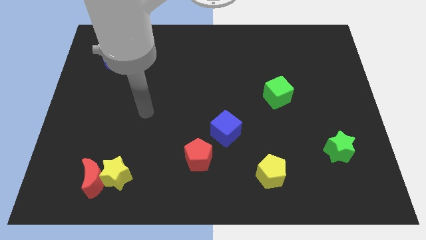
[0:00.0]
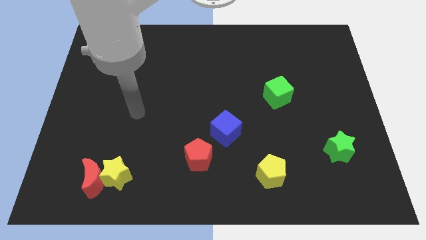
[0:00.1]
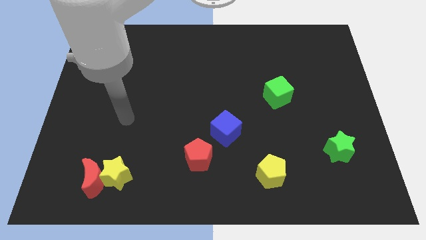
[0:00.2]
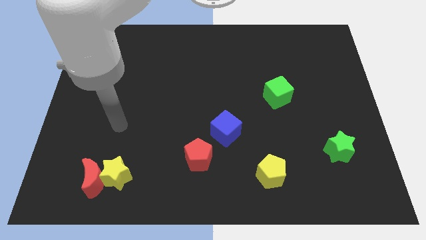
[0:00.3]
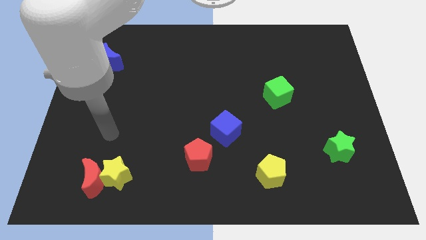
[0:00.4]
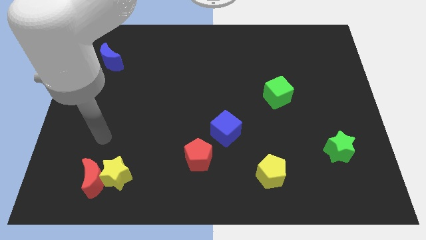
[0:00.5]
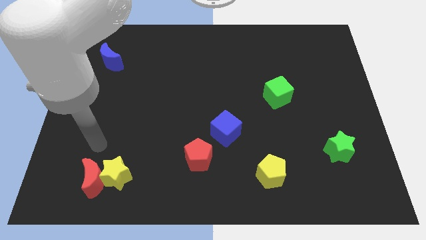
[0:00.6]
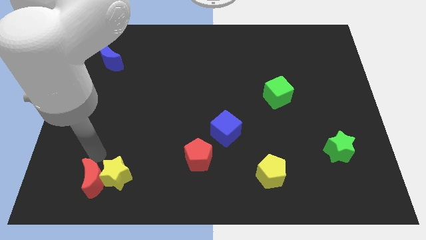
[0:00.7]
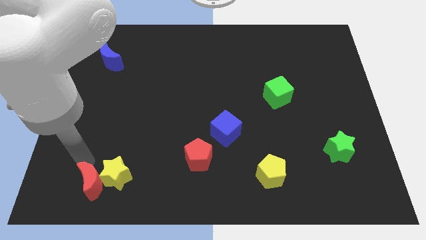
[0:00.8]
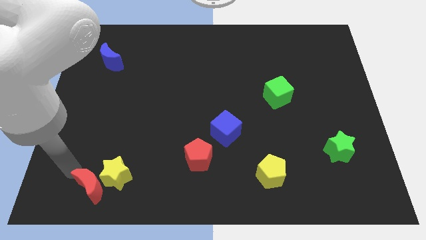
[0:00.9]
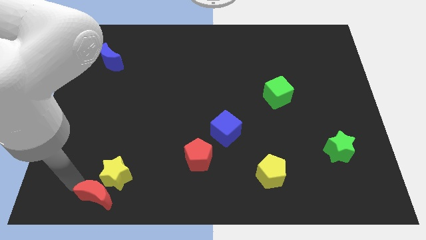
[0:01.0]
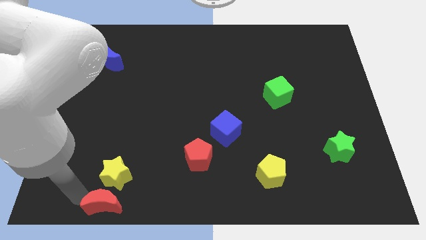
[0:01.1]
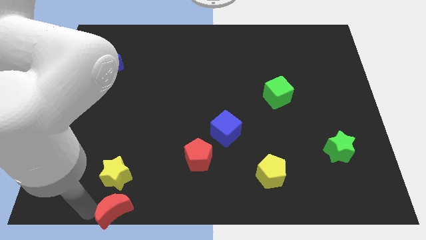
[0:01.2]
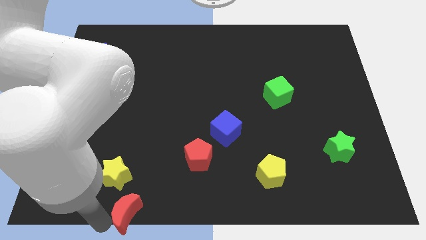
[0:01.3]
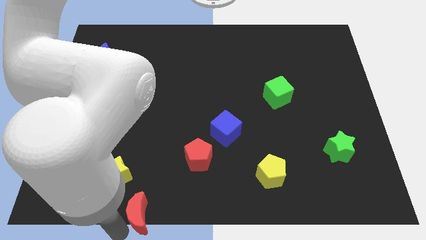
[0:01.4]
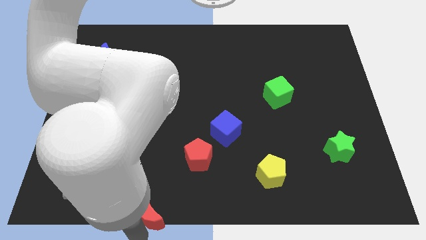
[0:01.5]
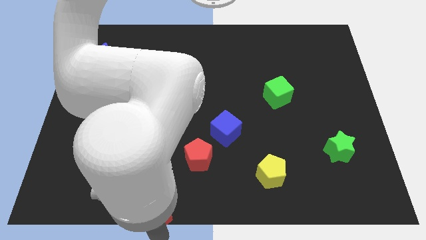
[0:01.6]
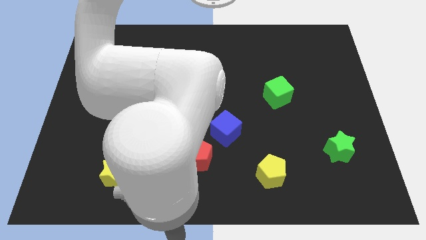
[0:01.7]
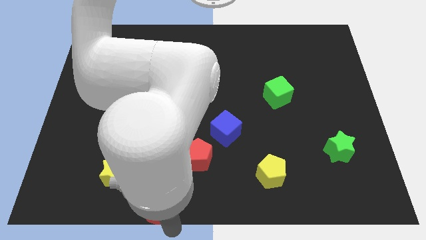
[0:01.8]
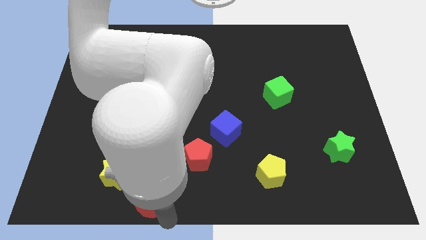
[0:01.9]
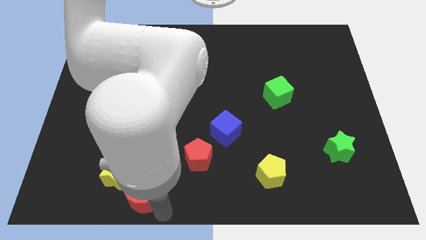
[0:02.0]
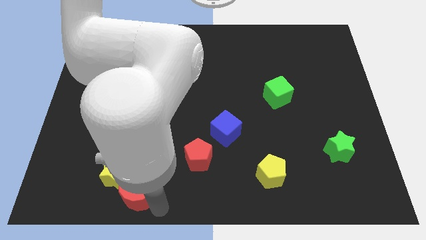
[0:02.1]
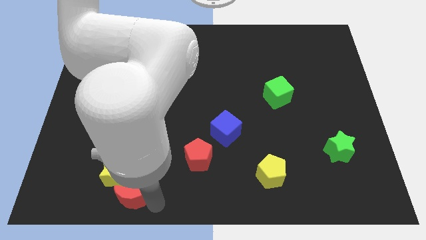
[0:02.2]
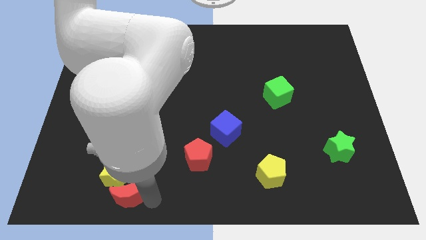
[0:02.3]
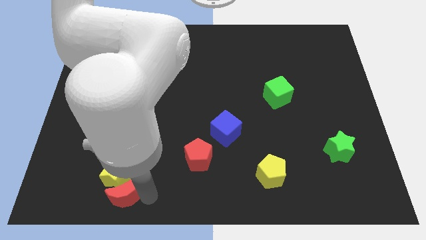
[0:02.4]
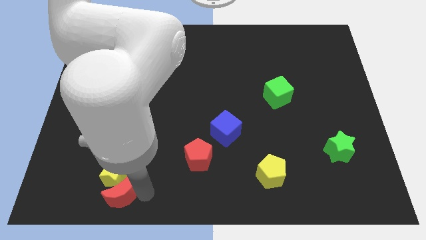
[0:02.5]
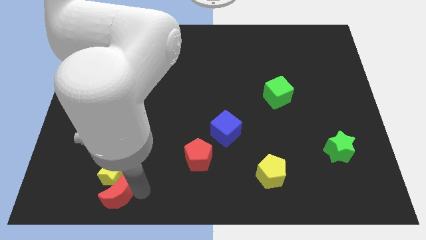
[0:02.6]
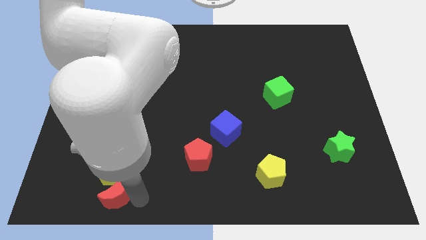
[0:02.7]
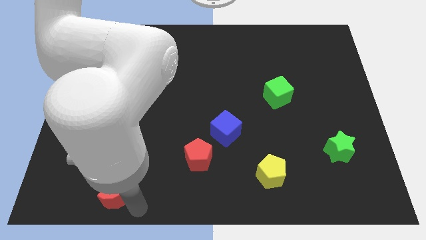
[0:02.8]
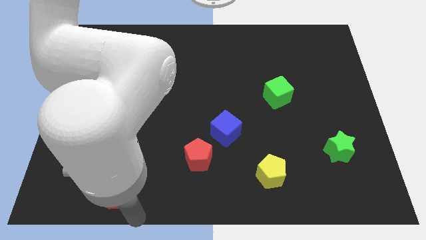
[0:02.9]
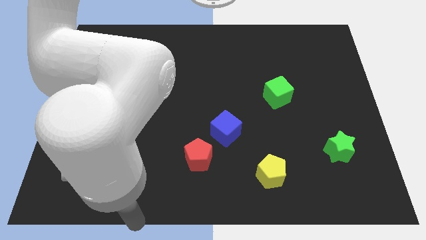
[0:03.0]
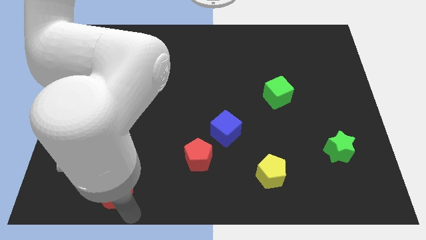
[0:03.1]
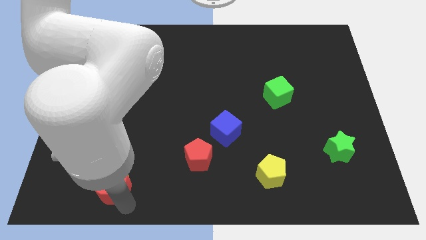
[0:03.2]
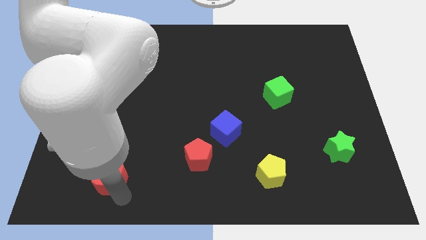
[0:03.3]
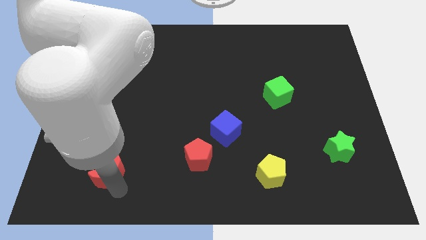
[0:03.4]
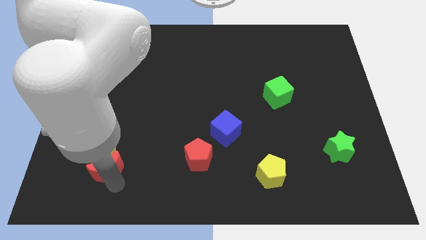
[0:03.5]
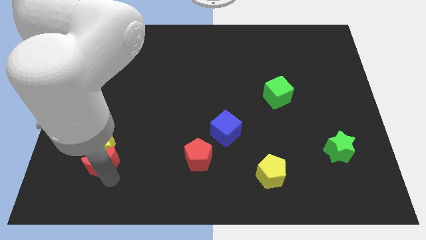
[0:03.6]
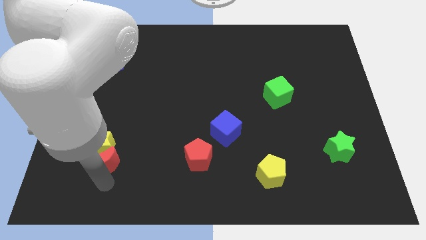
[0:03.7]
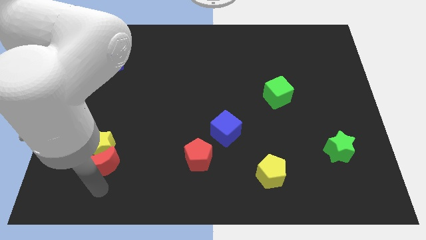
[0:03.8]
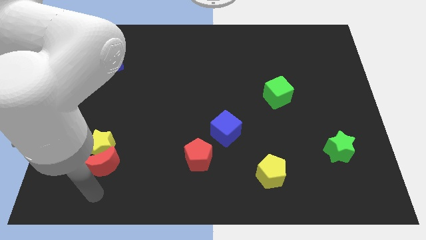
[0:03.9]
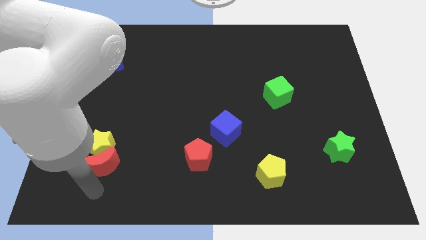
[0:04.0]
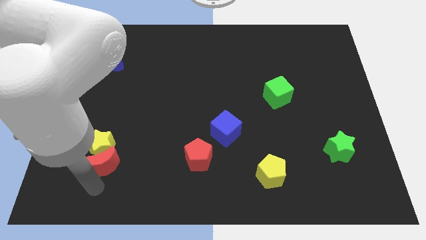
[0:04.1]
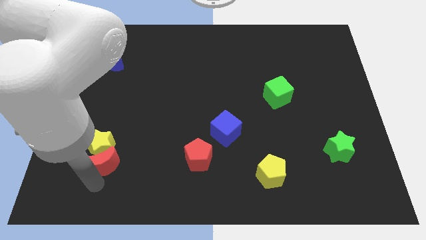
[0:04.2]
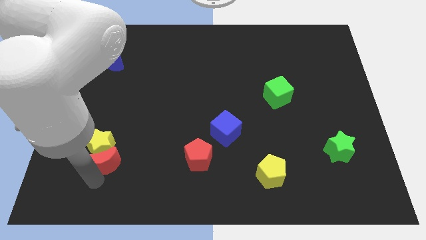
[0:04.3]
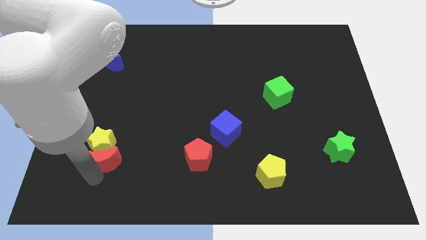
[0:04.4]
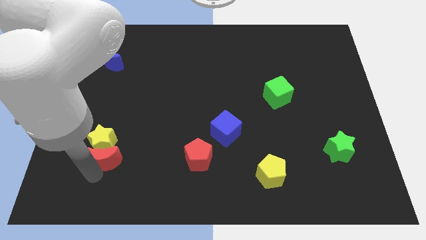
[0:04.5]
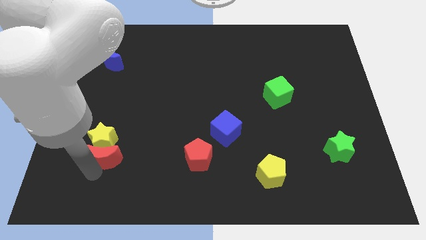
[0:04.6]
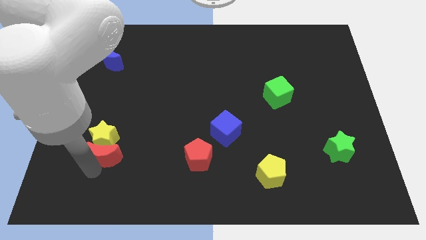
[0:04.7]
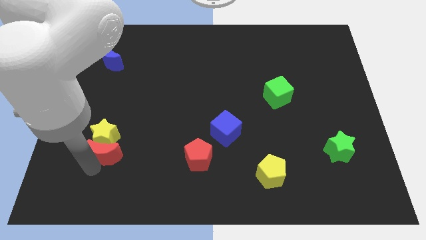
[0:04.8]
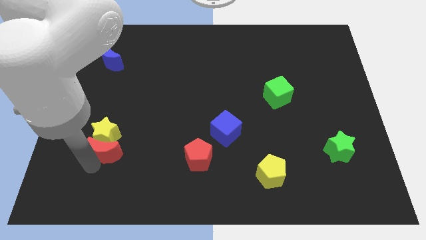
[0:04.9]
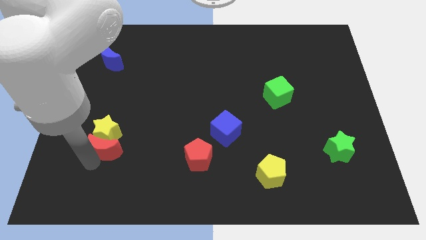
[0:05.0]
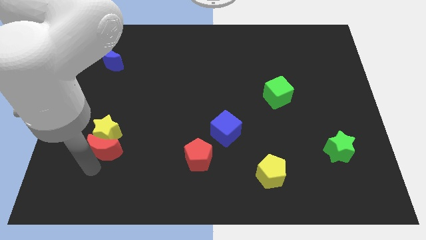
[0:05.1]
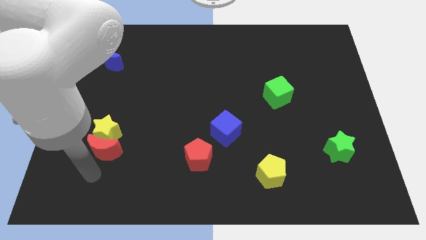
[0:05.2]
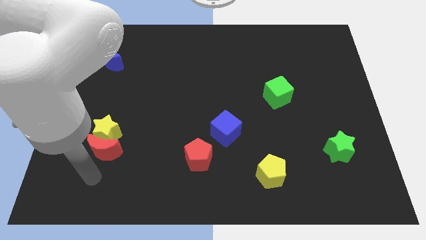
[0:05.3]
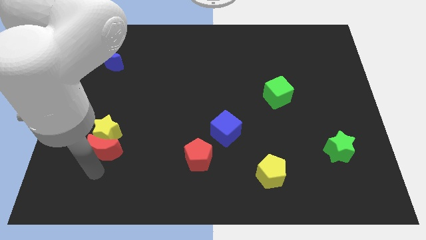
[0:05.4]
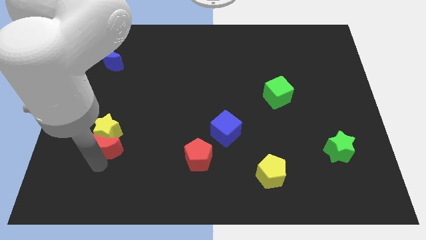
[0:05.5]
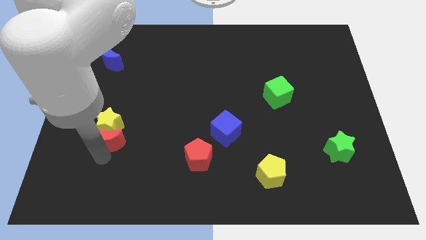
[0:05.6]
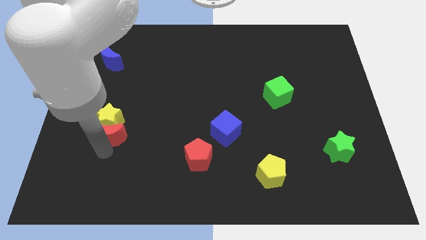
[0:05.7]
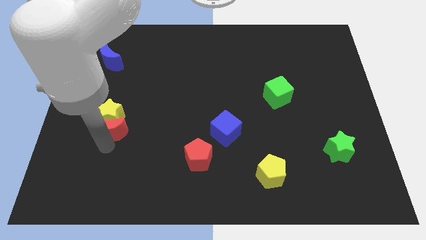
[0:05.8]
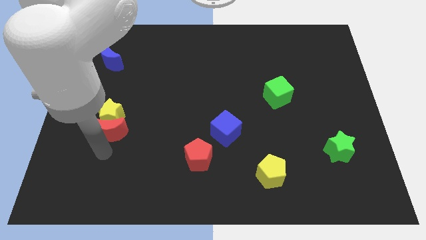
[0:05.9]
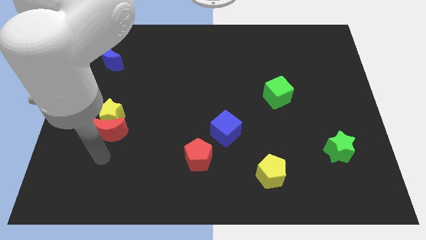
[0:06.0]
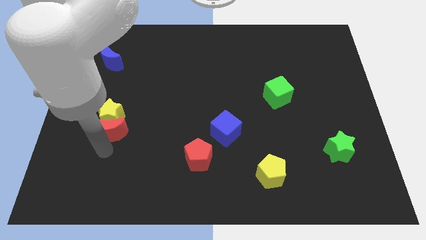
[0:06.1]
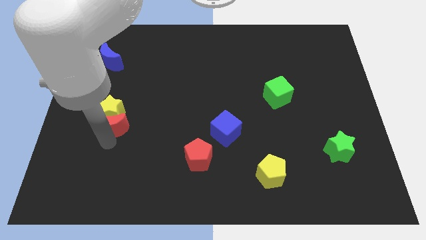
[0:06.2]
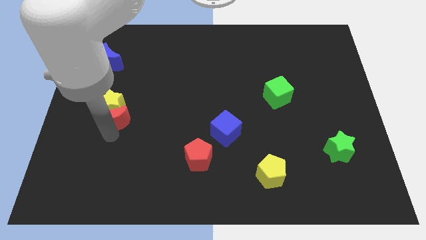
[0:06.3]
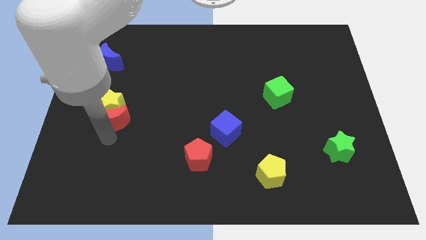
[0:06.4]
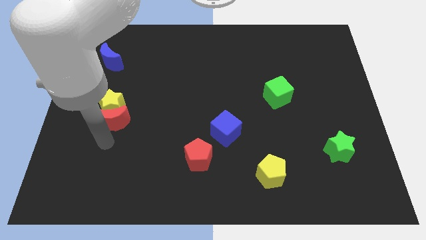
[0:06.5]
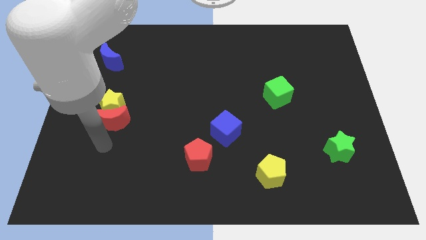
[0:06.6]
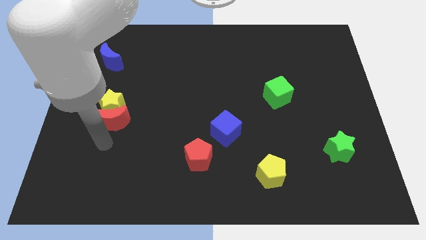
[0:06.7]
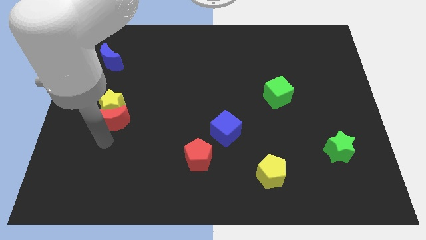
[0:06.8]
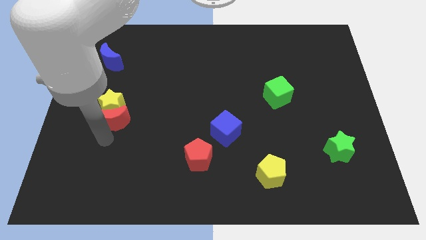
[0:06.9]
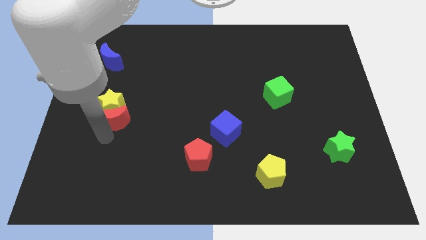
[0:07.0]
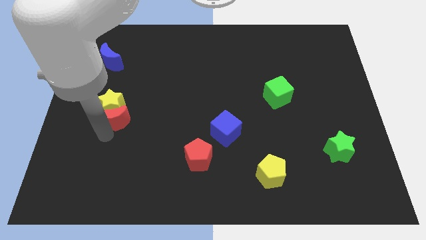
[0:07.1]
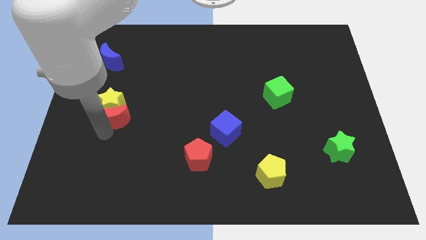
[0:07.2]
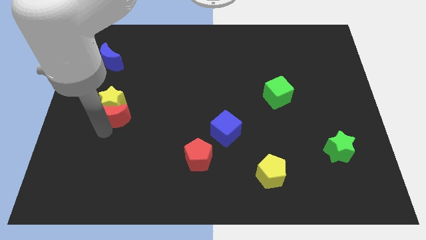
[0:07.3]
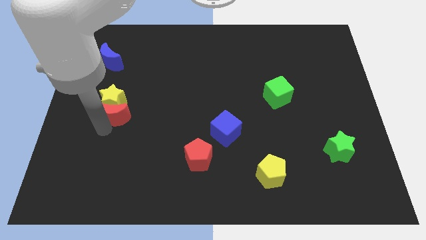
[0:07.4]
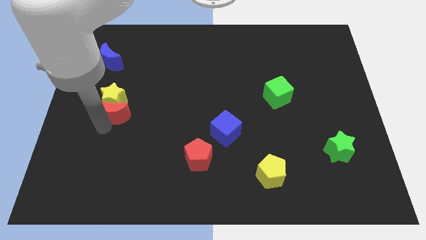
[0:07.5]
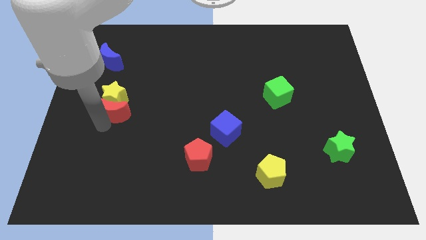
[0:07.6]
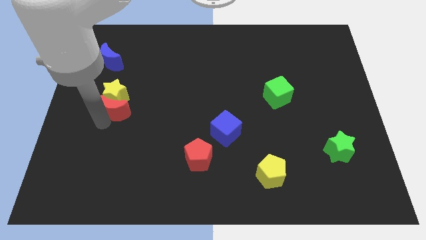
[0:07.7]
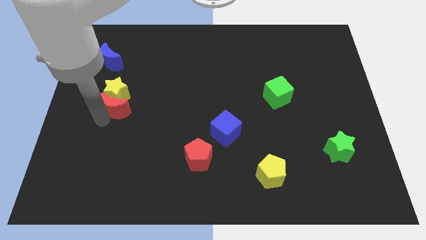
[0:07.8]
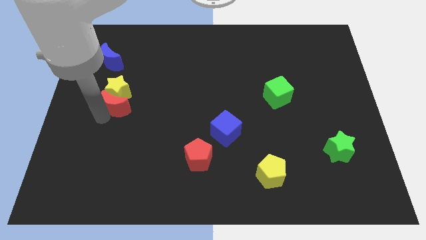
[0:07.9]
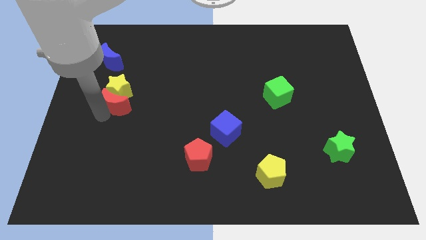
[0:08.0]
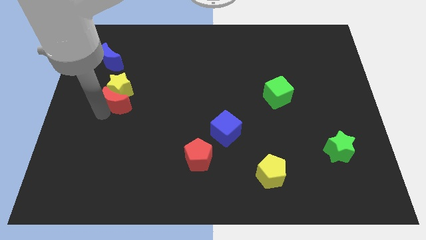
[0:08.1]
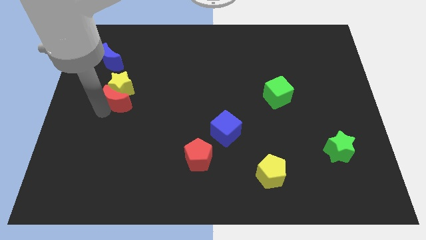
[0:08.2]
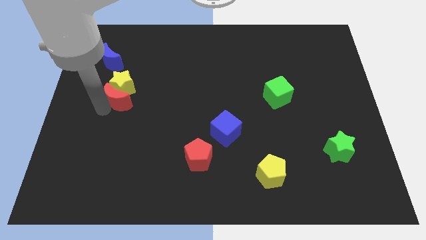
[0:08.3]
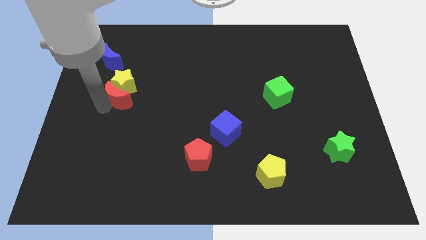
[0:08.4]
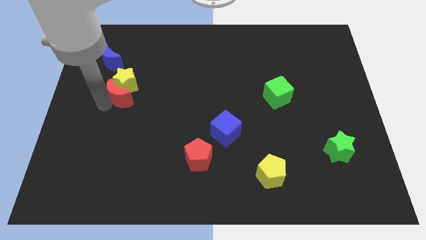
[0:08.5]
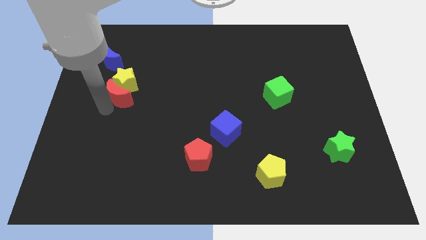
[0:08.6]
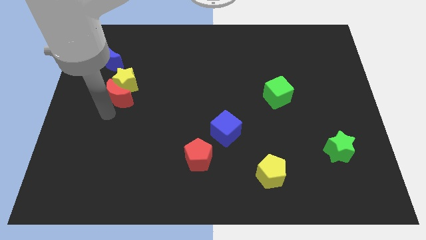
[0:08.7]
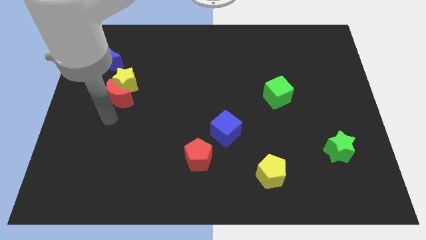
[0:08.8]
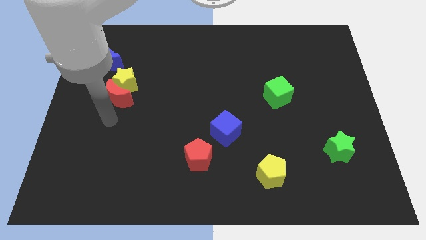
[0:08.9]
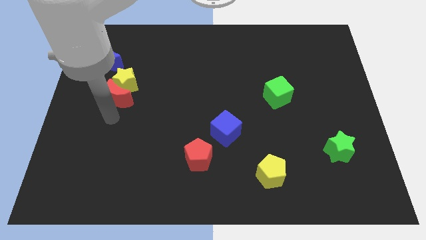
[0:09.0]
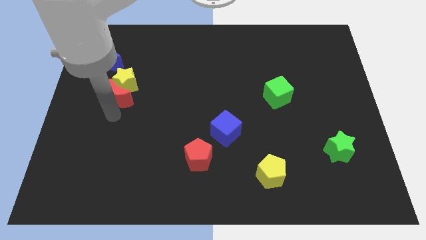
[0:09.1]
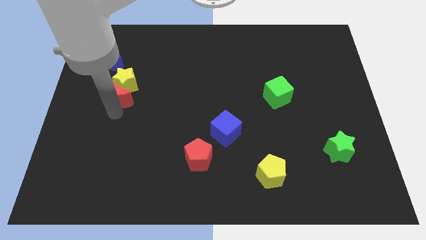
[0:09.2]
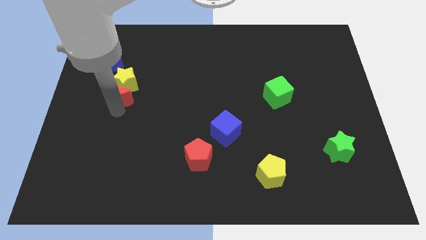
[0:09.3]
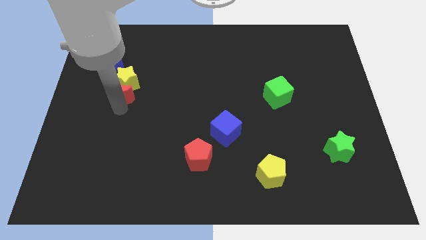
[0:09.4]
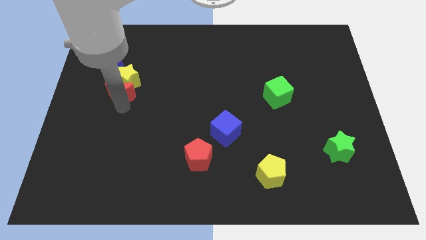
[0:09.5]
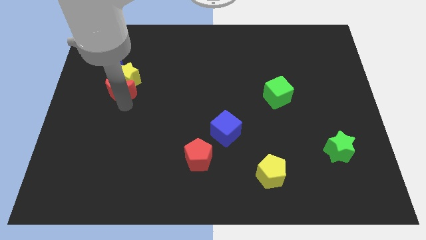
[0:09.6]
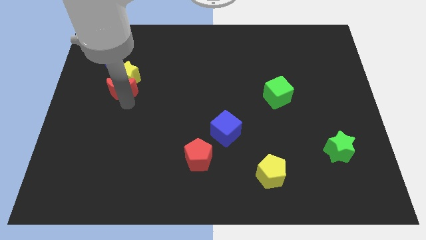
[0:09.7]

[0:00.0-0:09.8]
slide the red moon to the bottom right side of the blue moon
